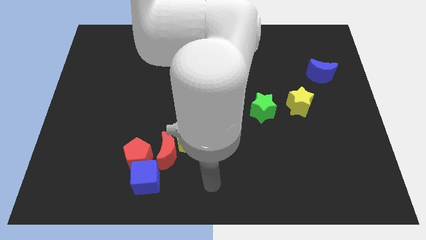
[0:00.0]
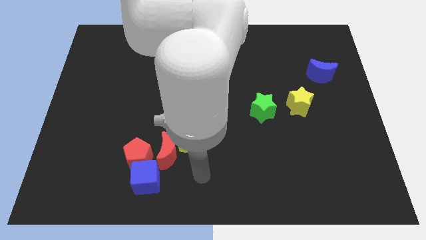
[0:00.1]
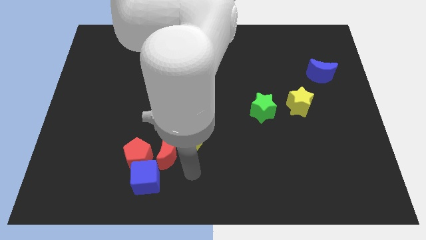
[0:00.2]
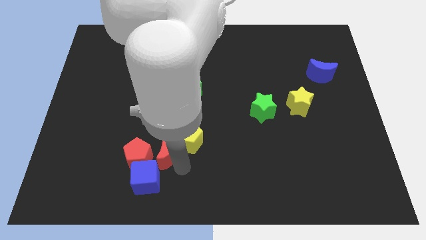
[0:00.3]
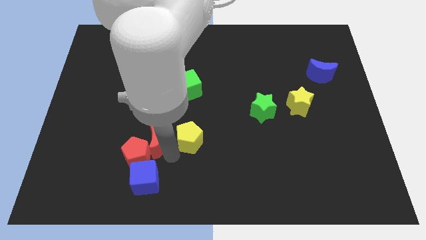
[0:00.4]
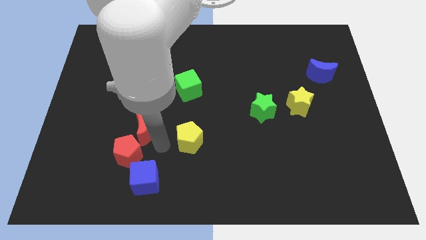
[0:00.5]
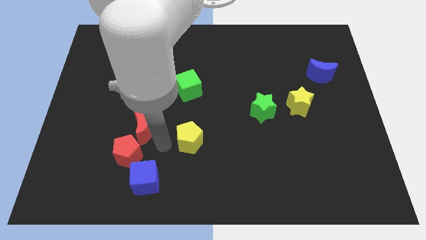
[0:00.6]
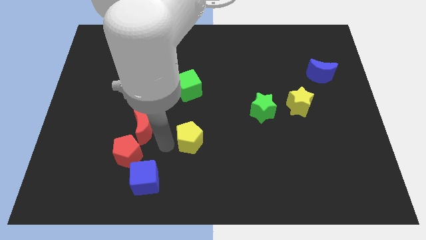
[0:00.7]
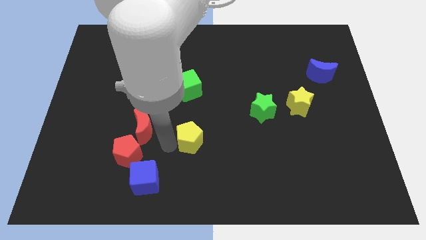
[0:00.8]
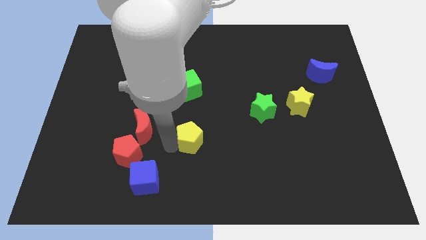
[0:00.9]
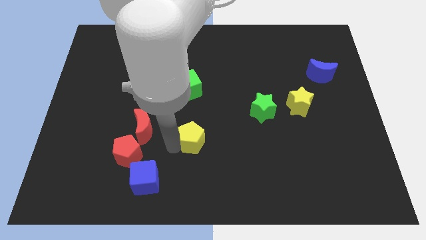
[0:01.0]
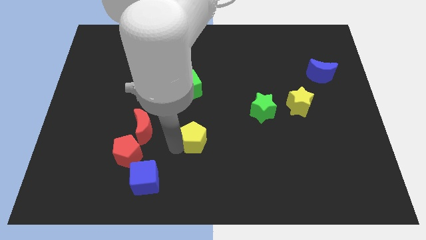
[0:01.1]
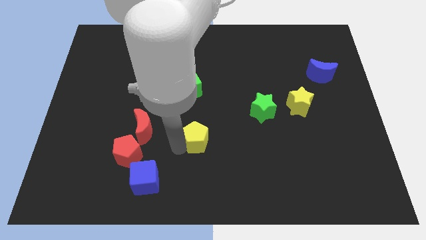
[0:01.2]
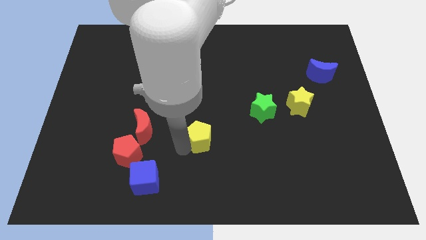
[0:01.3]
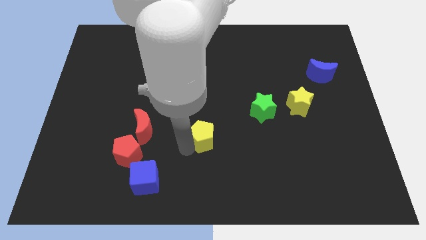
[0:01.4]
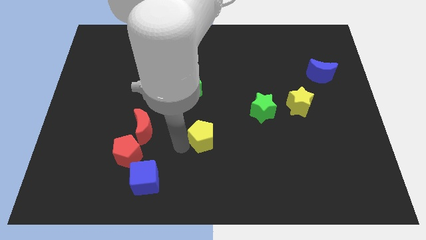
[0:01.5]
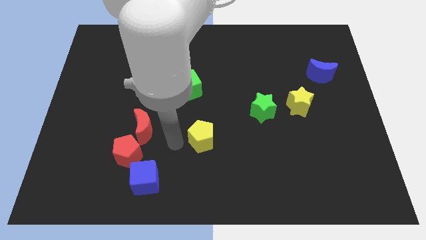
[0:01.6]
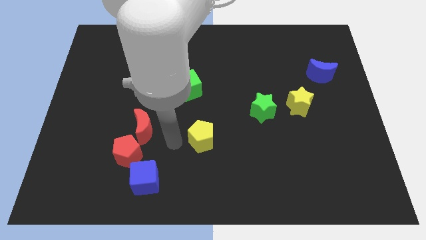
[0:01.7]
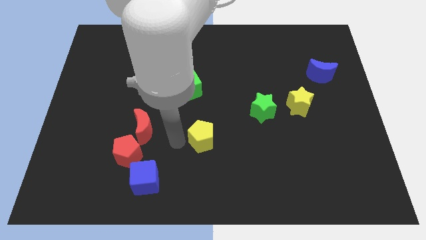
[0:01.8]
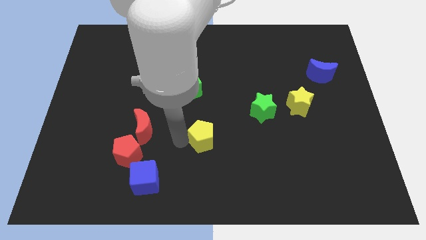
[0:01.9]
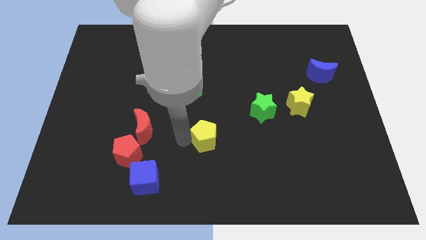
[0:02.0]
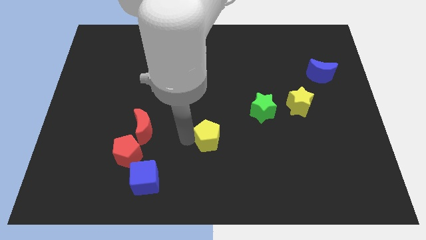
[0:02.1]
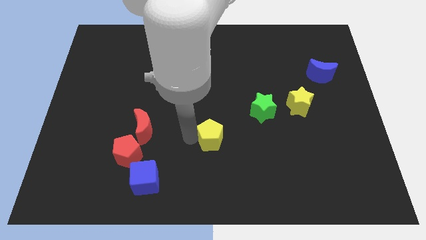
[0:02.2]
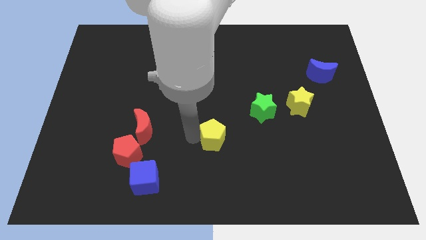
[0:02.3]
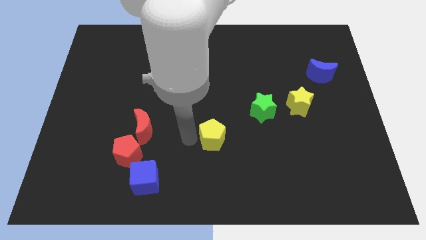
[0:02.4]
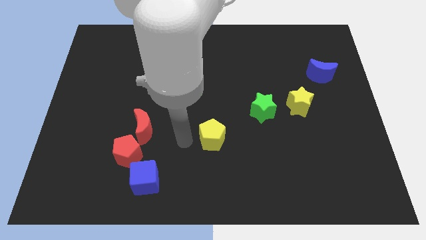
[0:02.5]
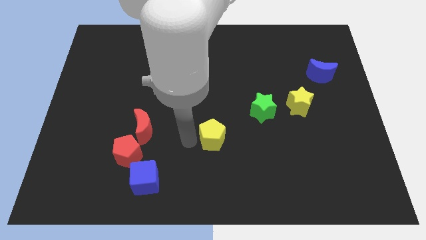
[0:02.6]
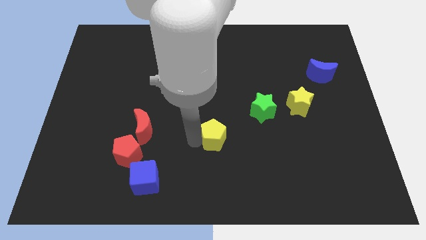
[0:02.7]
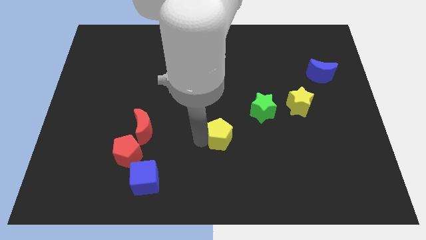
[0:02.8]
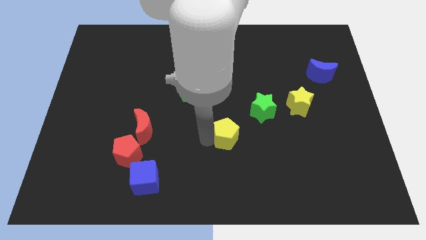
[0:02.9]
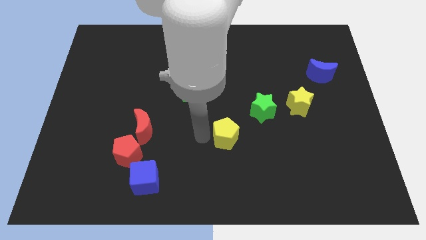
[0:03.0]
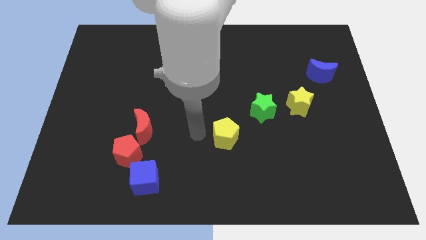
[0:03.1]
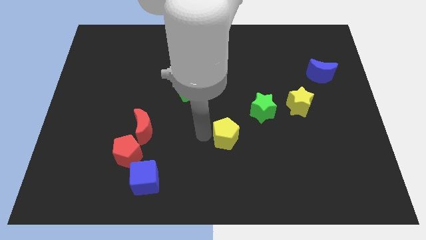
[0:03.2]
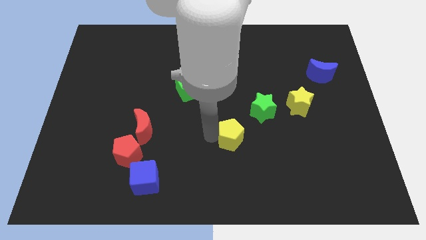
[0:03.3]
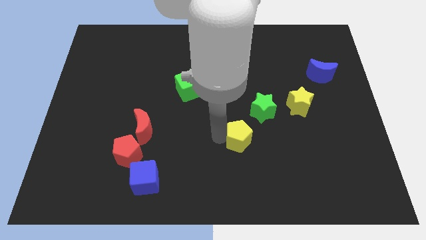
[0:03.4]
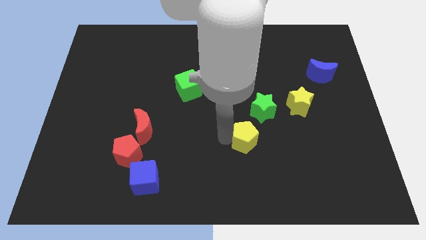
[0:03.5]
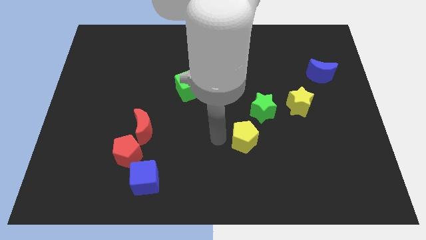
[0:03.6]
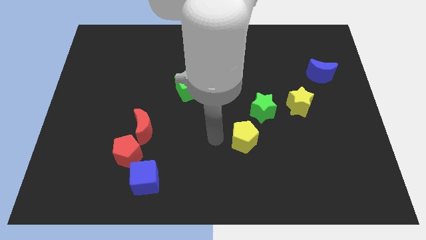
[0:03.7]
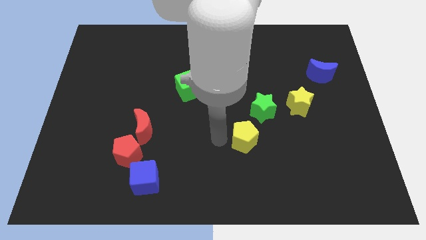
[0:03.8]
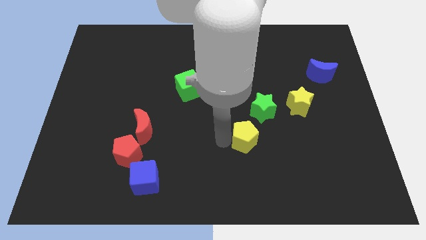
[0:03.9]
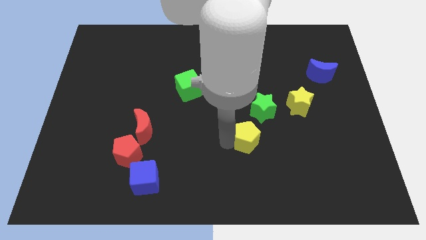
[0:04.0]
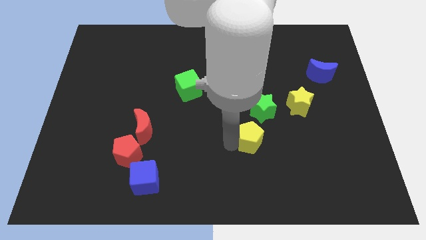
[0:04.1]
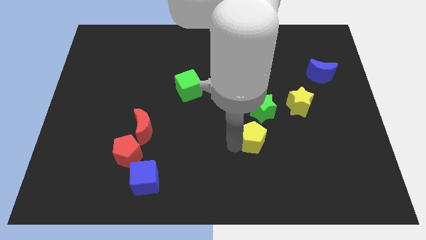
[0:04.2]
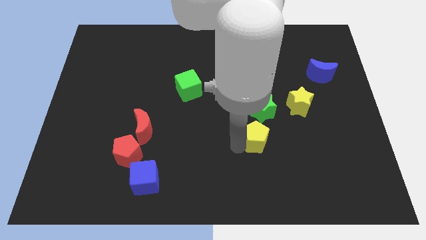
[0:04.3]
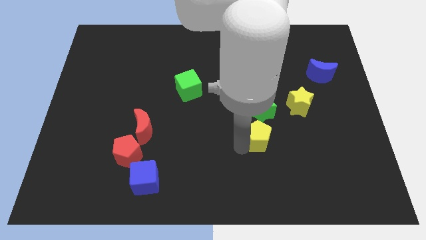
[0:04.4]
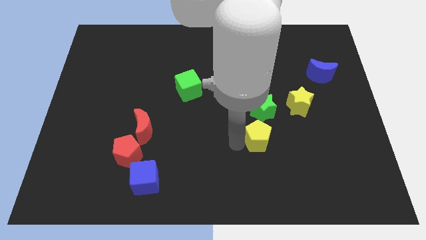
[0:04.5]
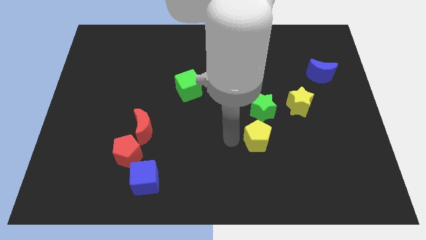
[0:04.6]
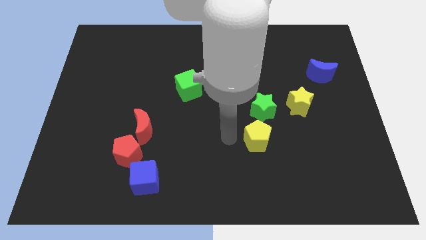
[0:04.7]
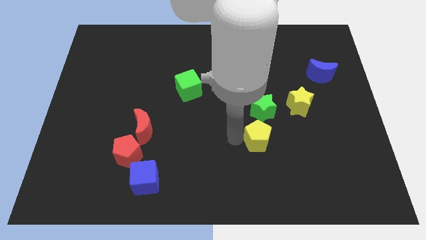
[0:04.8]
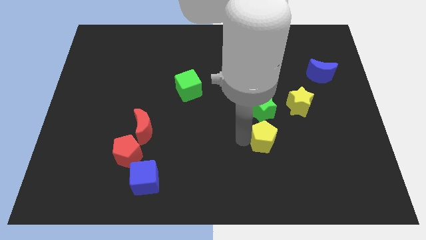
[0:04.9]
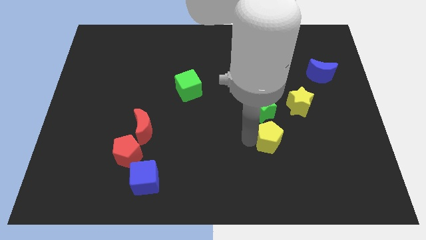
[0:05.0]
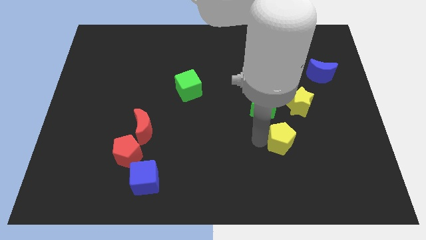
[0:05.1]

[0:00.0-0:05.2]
push the yellow pentagon right

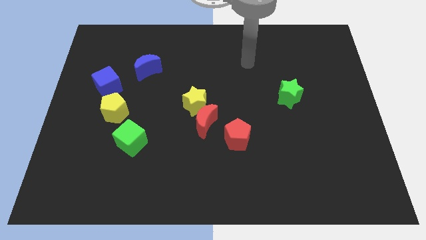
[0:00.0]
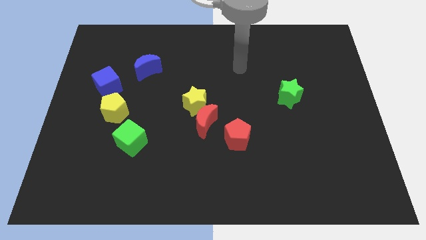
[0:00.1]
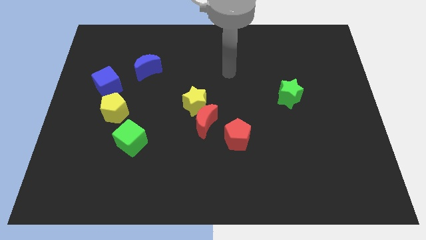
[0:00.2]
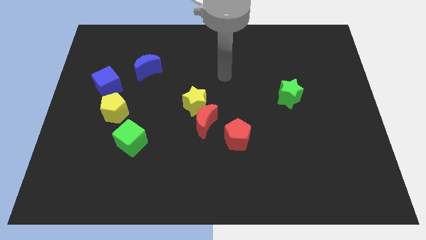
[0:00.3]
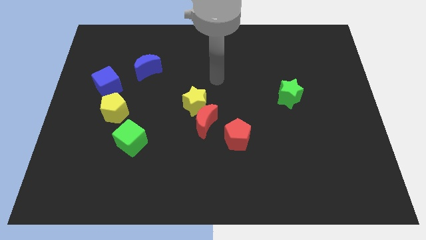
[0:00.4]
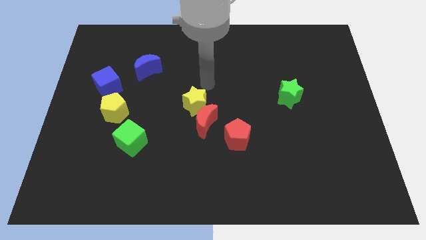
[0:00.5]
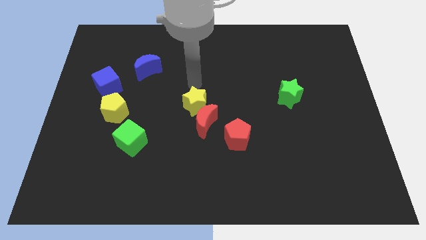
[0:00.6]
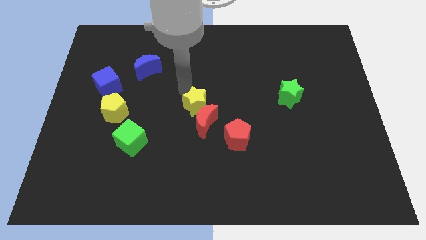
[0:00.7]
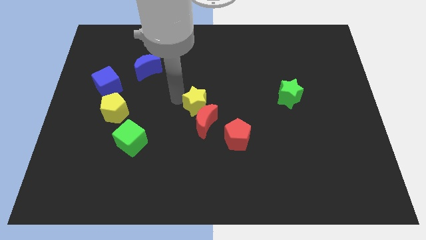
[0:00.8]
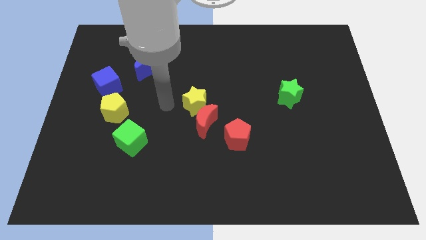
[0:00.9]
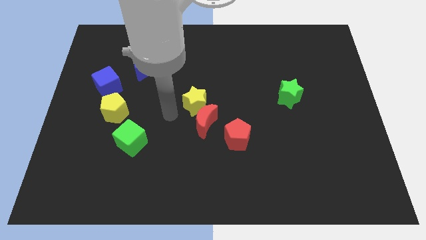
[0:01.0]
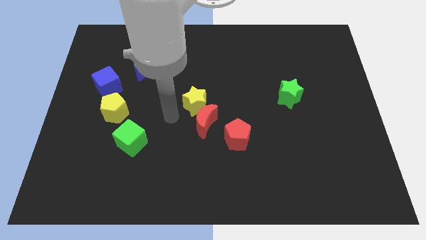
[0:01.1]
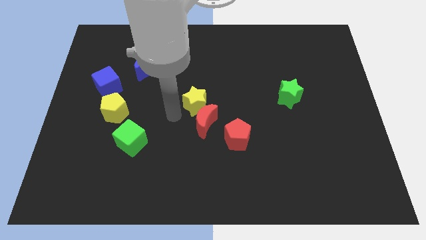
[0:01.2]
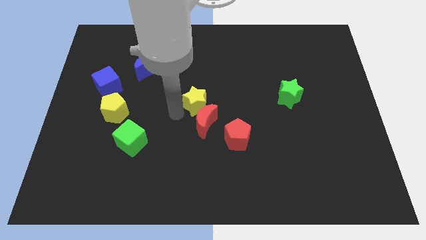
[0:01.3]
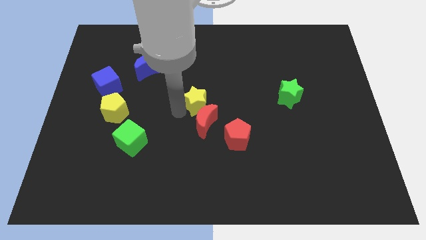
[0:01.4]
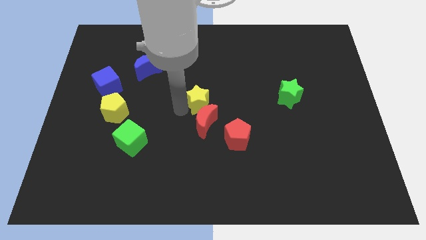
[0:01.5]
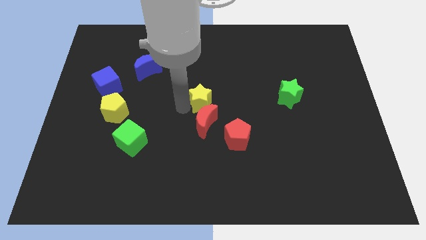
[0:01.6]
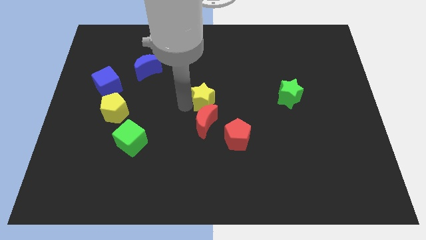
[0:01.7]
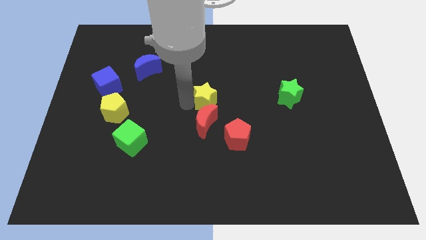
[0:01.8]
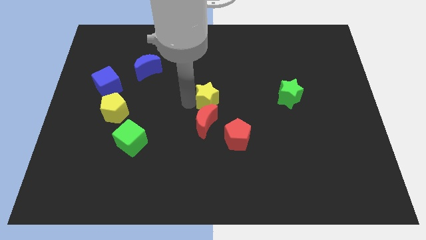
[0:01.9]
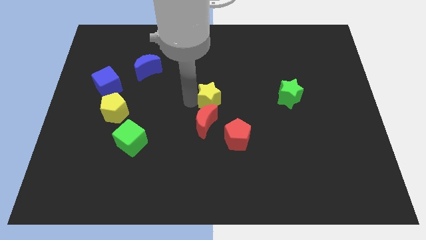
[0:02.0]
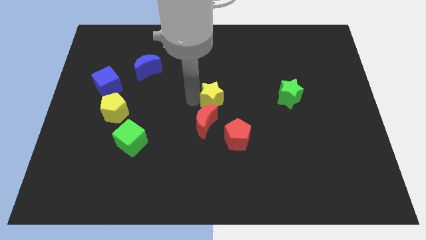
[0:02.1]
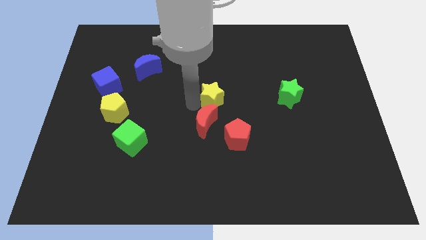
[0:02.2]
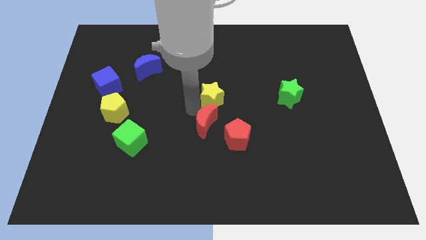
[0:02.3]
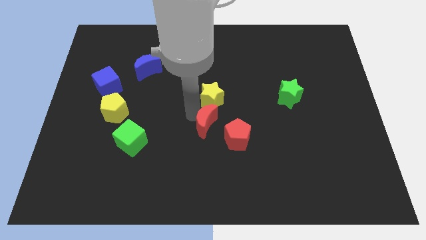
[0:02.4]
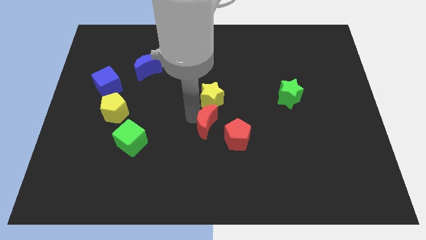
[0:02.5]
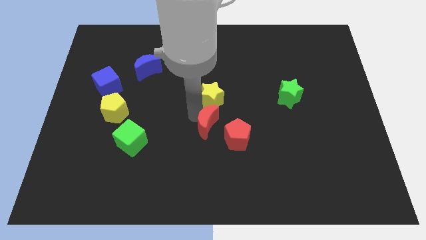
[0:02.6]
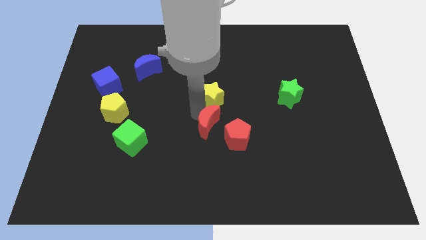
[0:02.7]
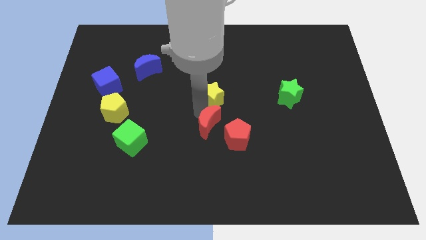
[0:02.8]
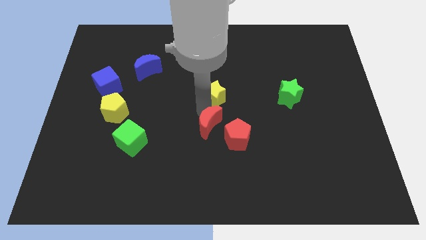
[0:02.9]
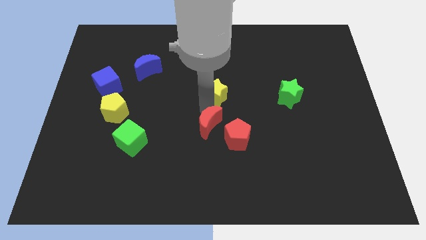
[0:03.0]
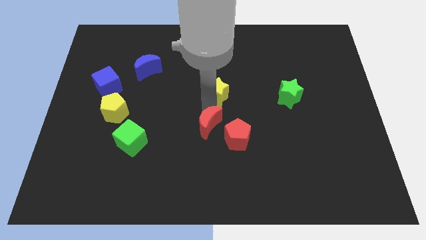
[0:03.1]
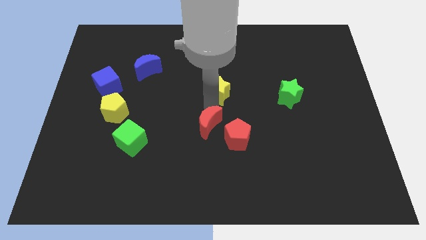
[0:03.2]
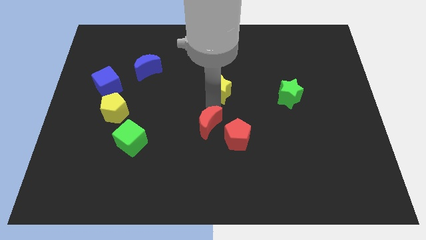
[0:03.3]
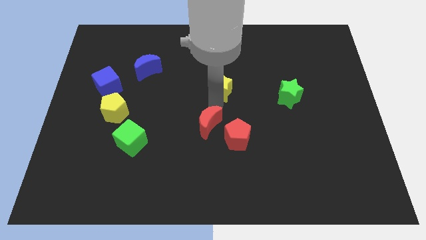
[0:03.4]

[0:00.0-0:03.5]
move the yellow star a bit up and right diagonally
